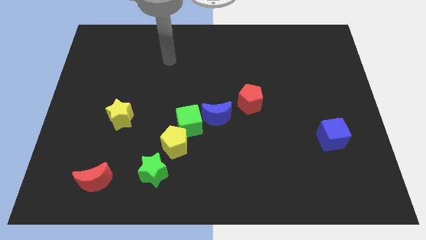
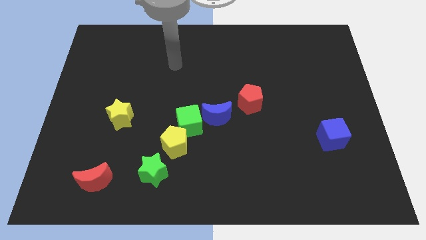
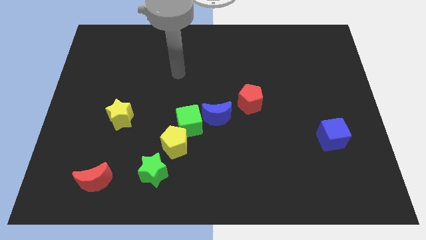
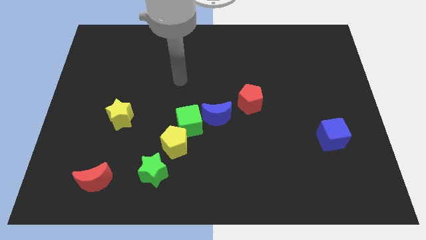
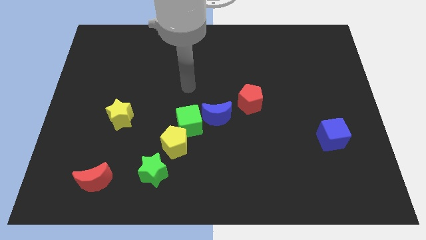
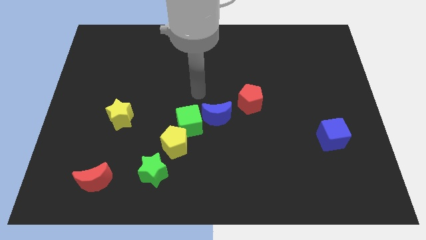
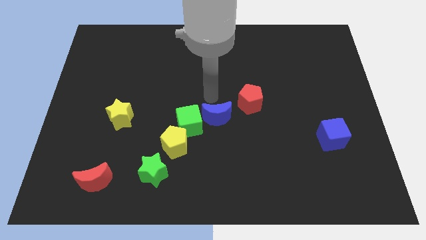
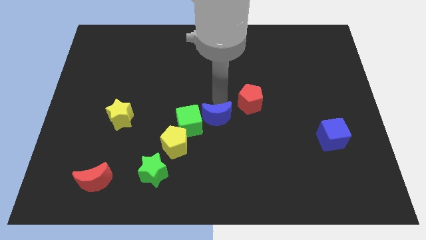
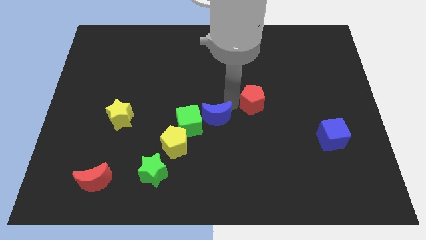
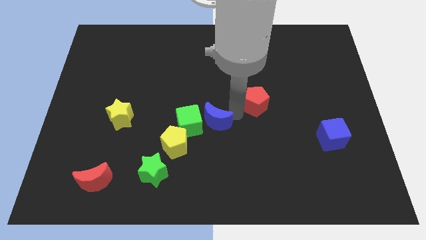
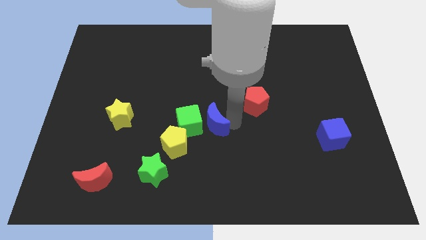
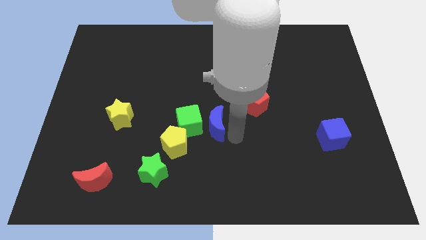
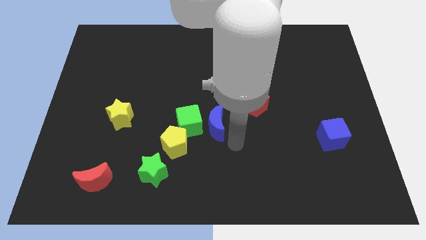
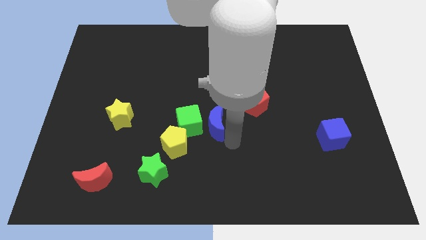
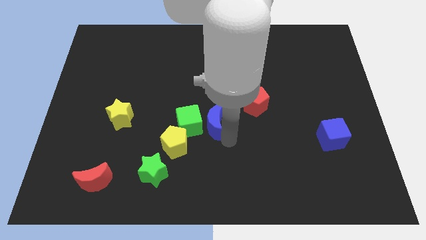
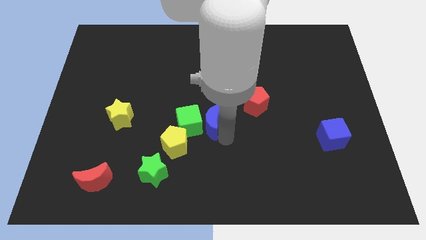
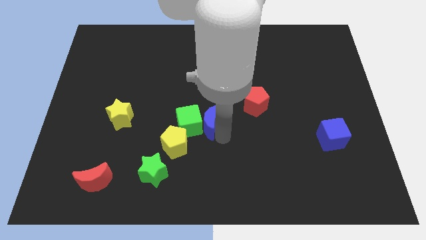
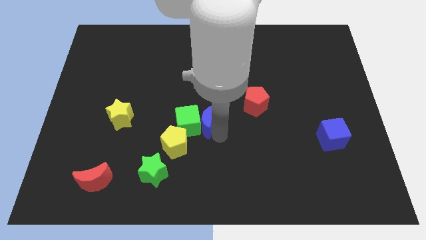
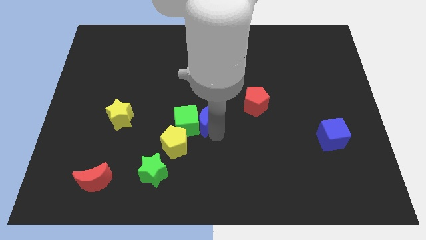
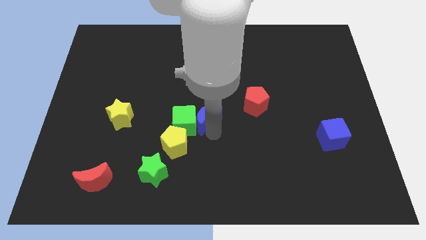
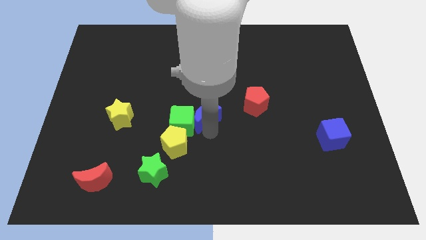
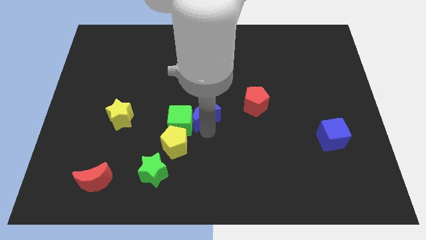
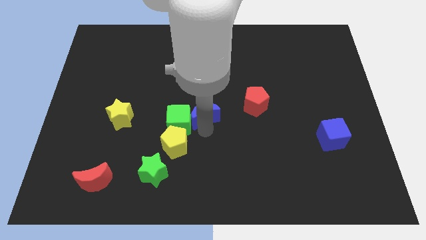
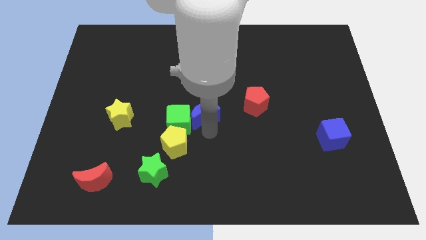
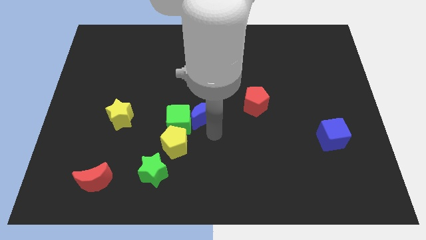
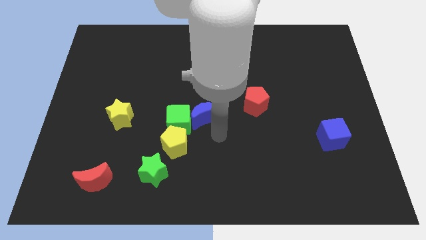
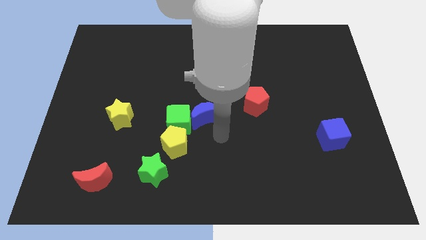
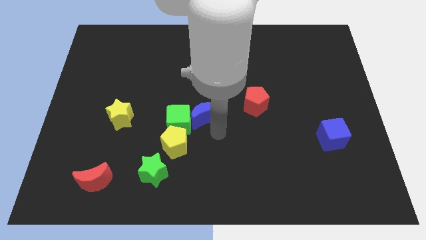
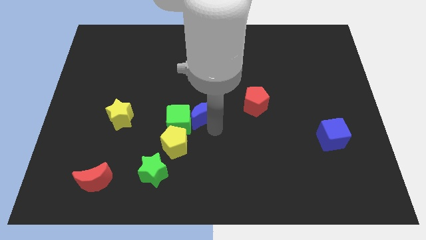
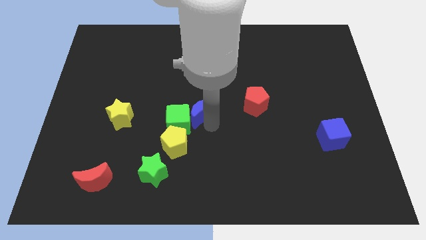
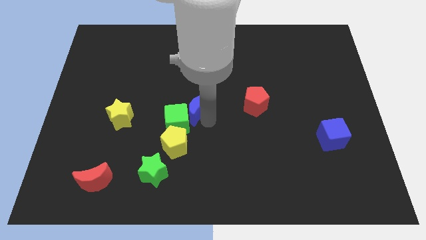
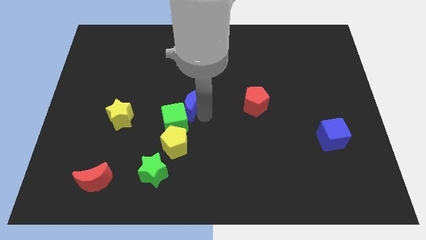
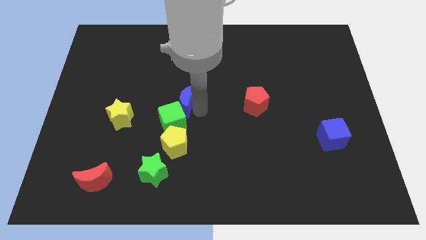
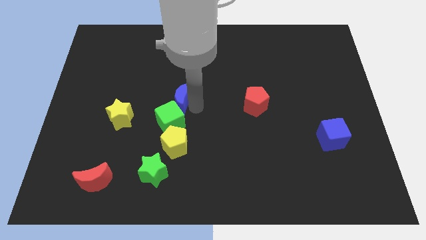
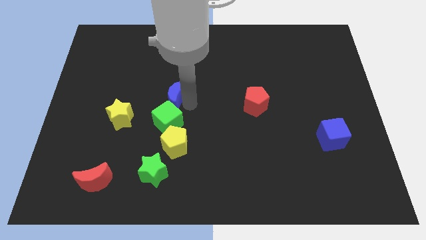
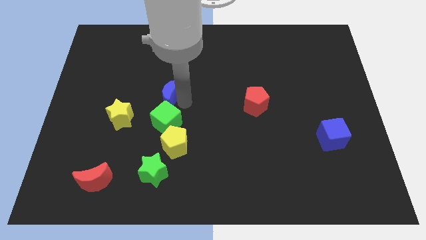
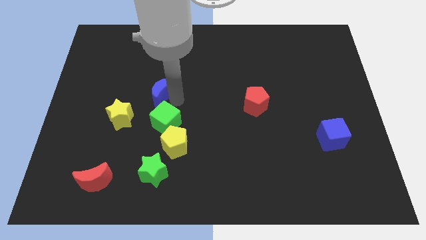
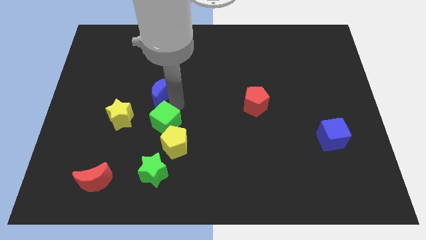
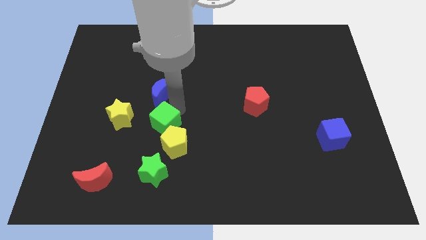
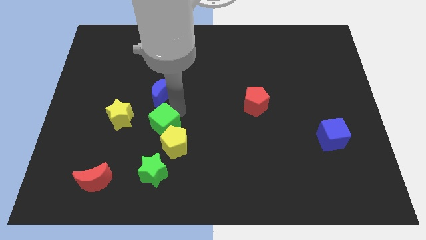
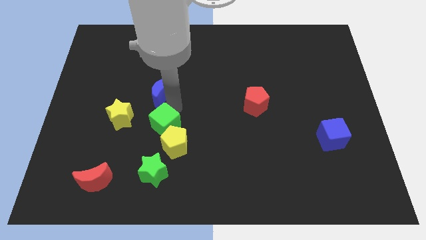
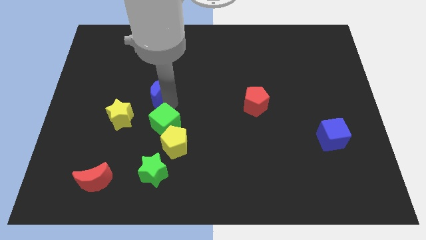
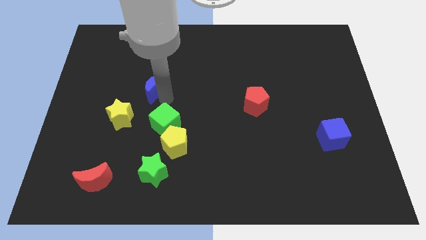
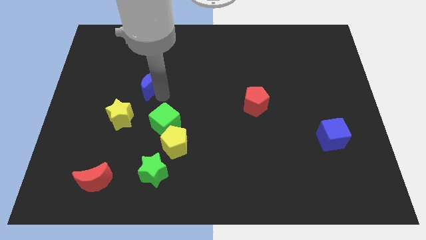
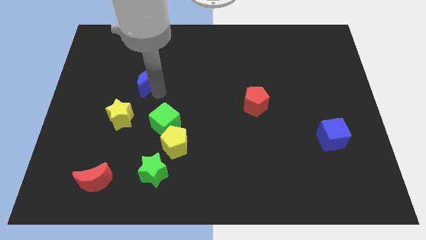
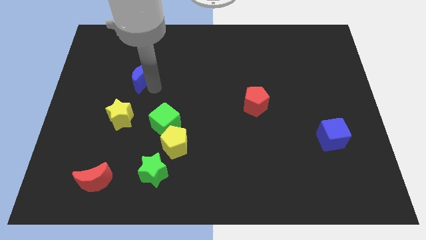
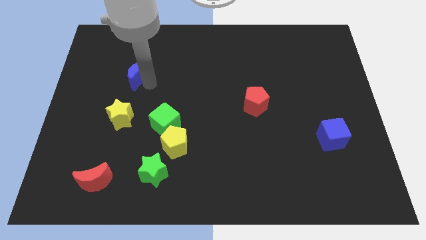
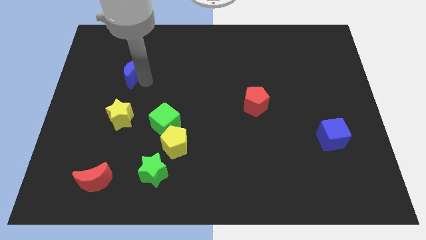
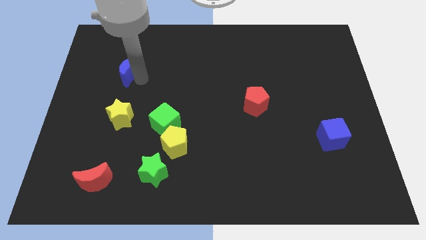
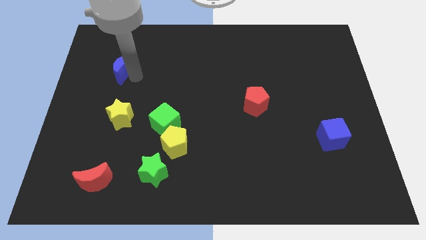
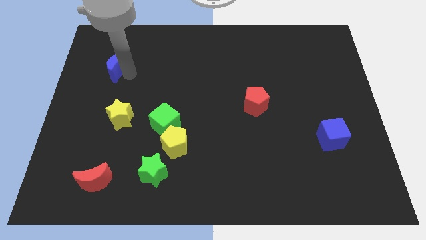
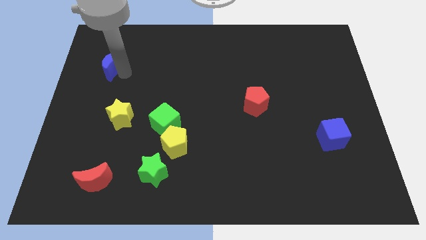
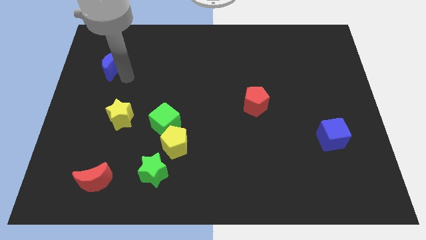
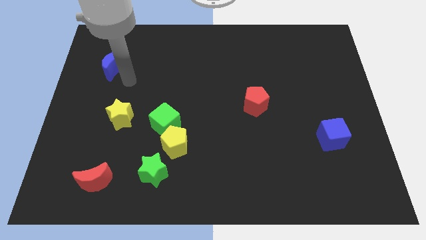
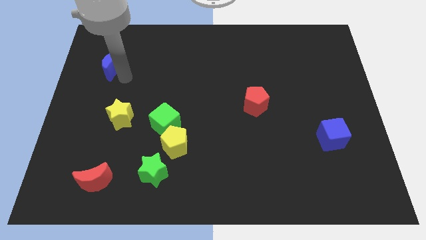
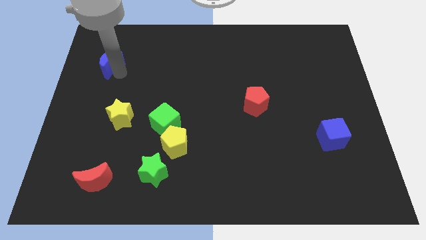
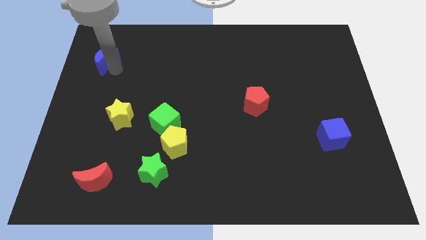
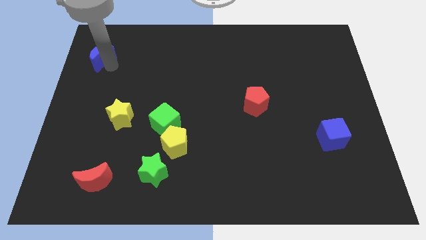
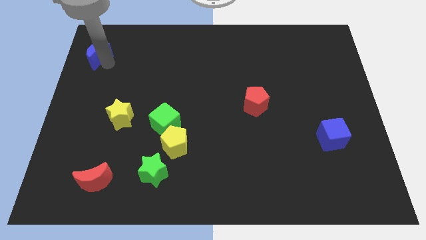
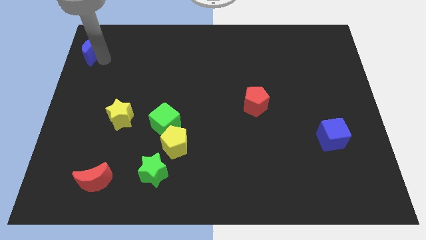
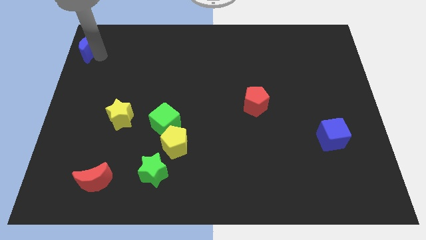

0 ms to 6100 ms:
put the blue moon to the upper left corner
